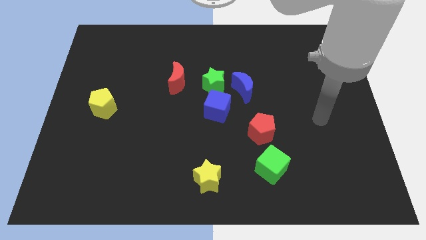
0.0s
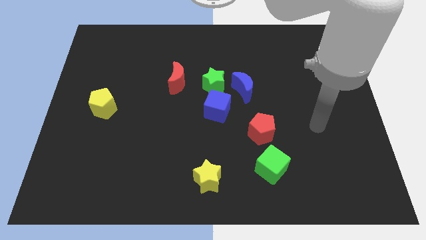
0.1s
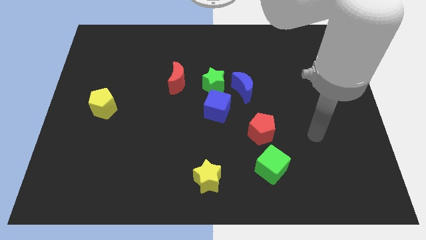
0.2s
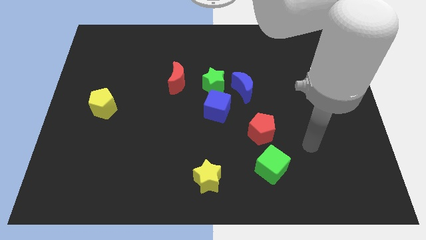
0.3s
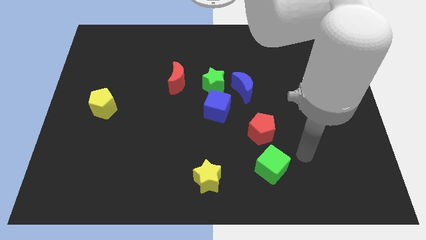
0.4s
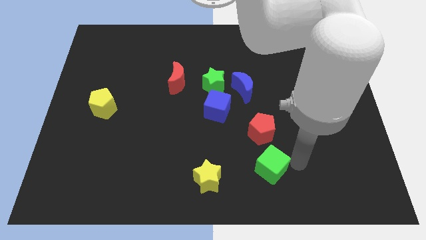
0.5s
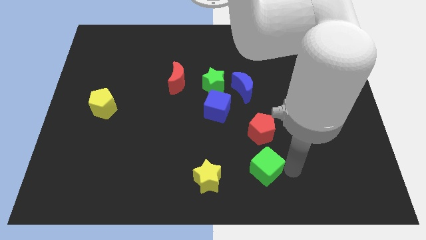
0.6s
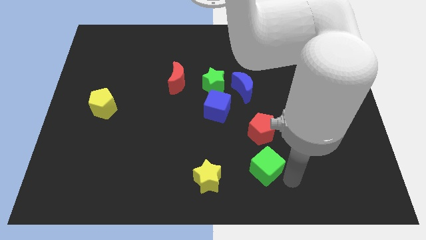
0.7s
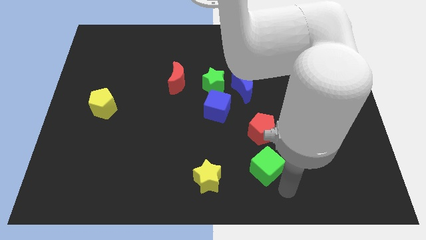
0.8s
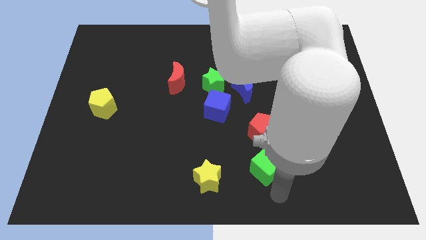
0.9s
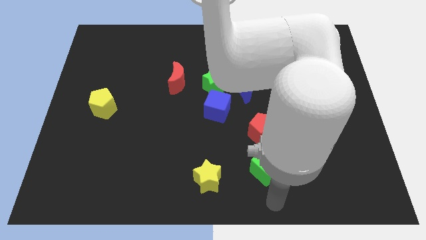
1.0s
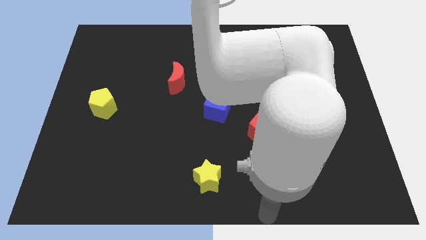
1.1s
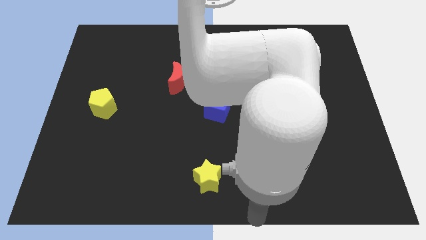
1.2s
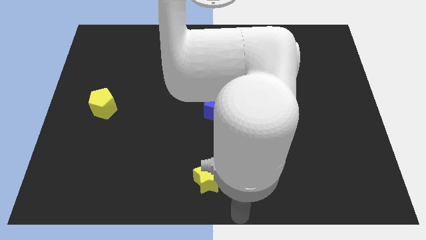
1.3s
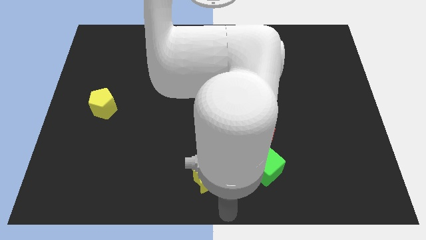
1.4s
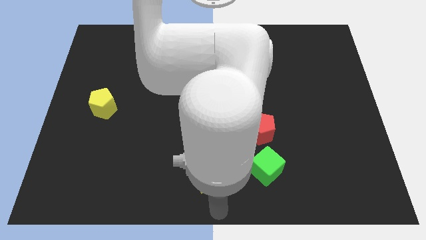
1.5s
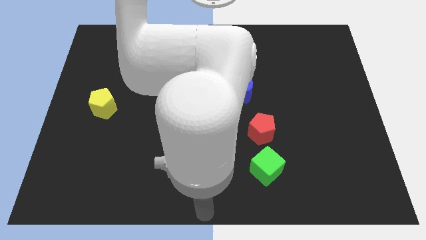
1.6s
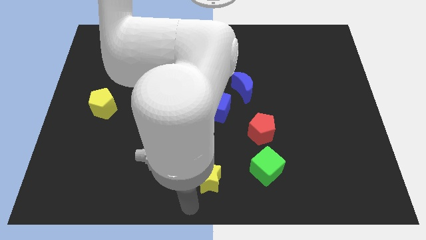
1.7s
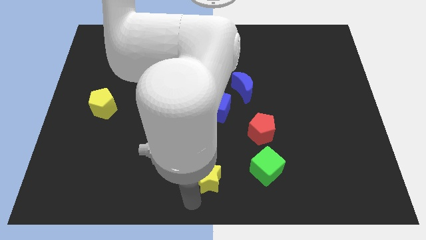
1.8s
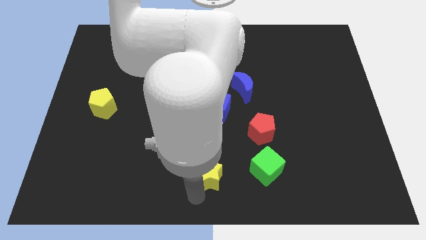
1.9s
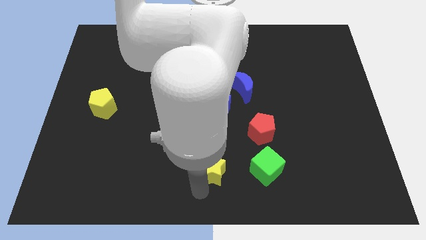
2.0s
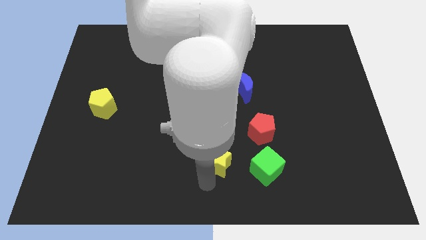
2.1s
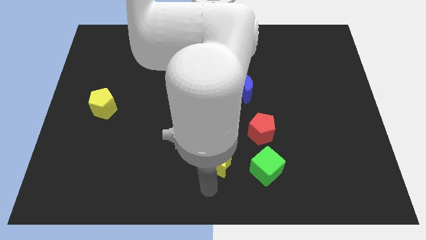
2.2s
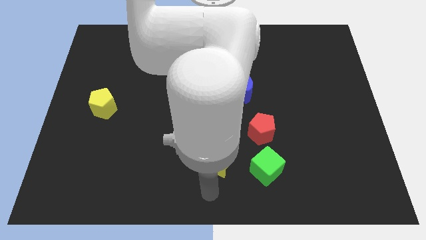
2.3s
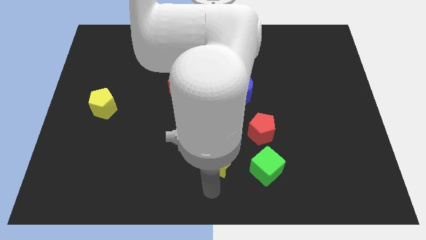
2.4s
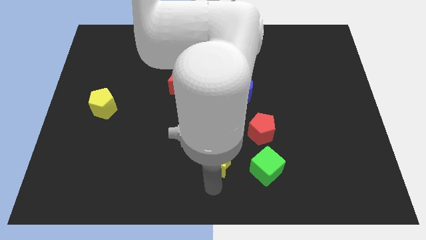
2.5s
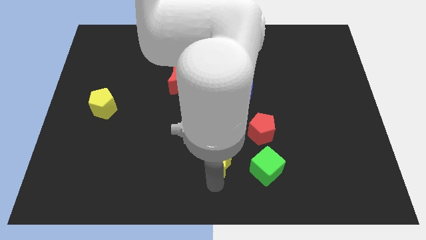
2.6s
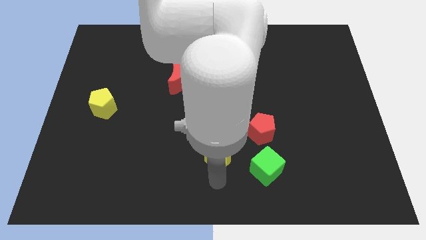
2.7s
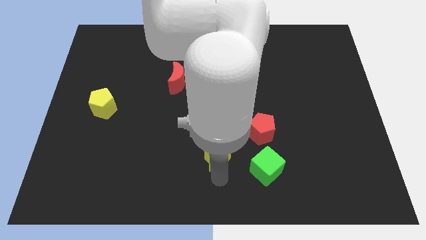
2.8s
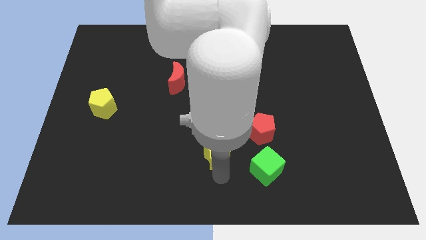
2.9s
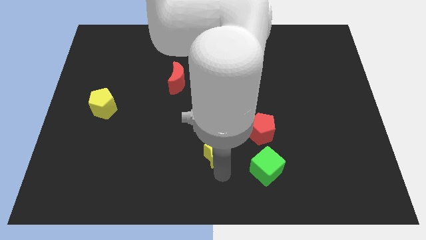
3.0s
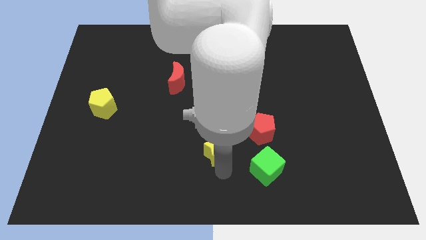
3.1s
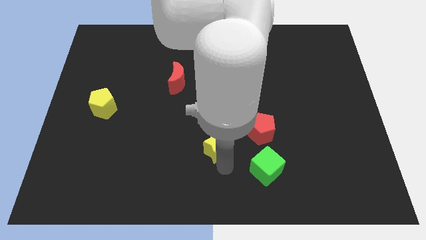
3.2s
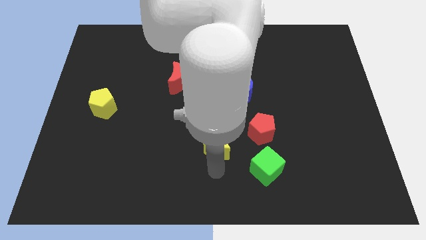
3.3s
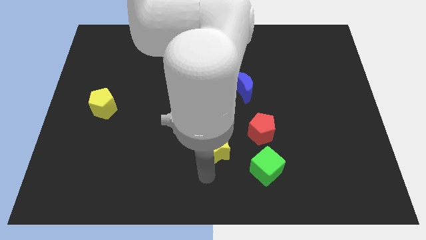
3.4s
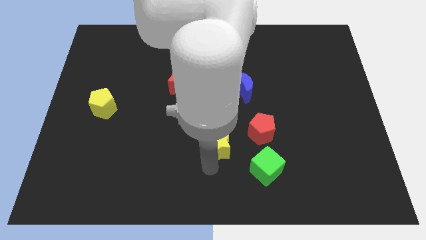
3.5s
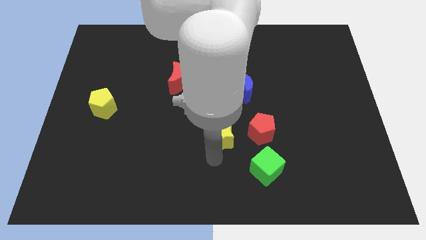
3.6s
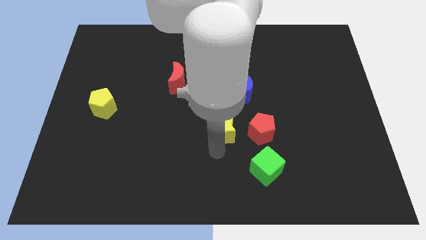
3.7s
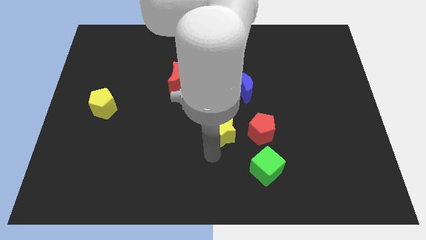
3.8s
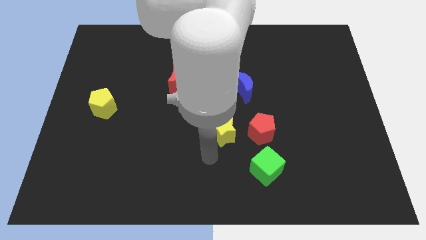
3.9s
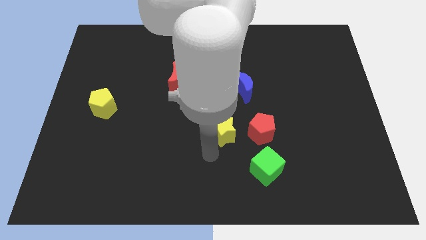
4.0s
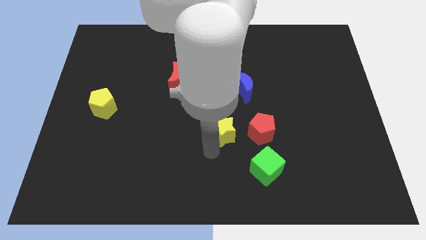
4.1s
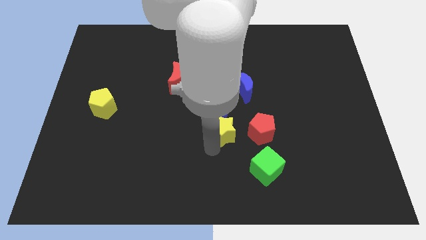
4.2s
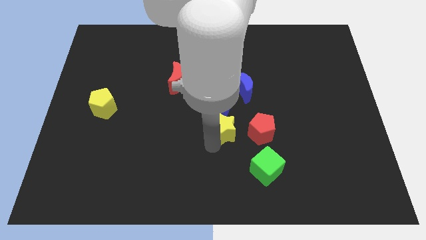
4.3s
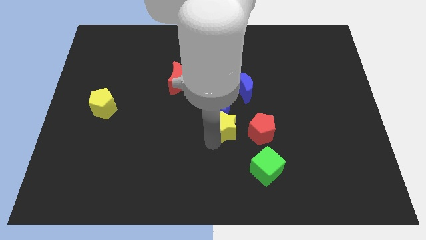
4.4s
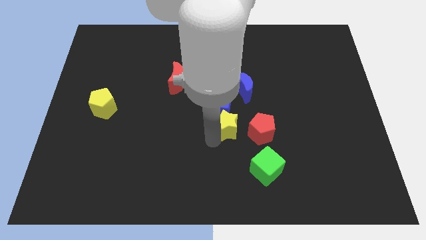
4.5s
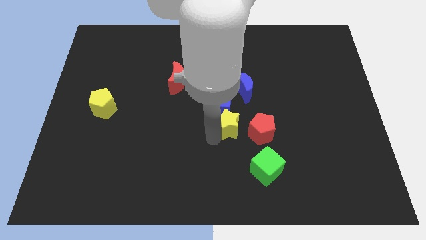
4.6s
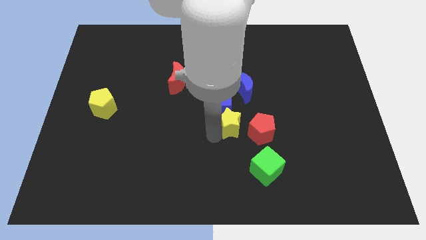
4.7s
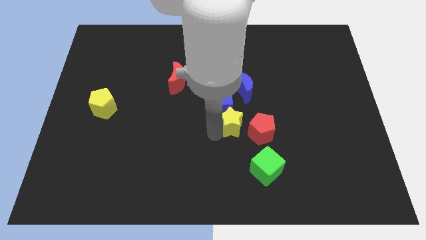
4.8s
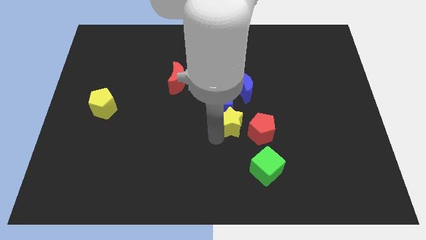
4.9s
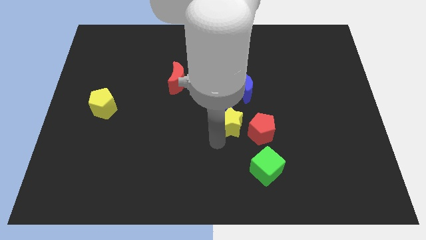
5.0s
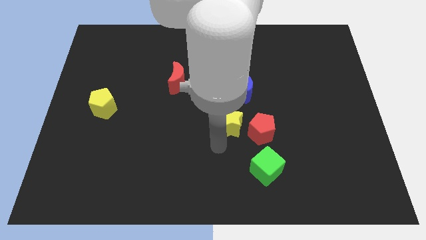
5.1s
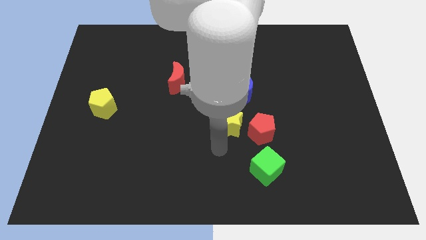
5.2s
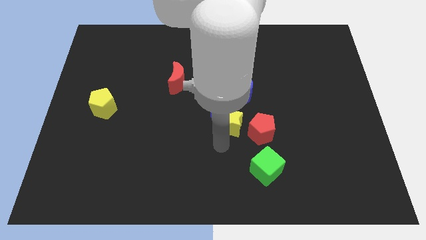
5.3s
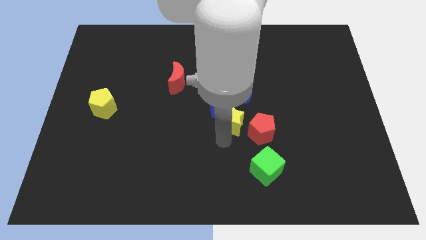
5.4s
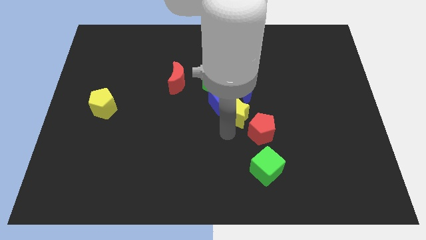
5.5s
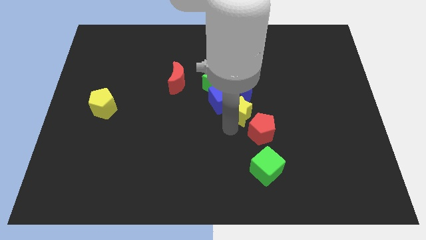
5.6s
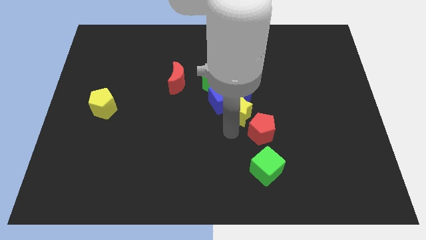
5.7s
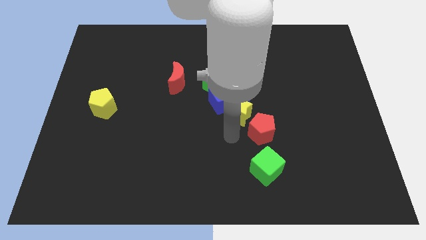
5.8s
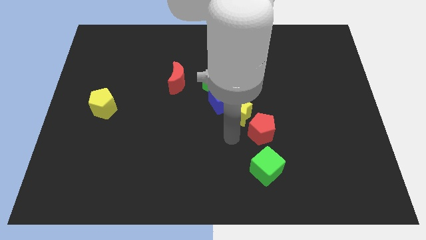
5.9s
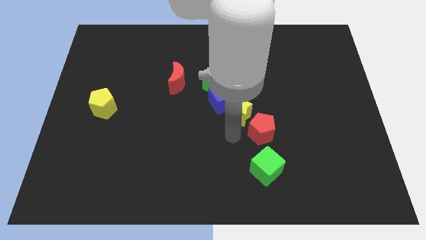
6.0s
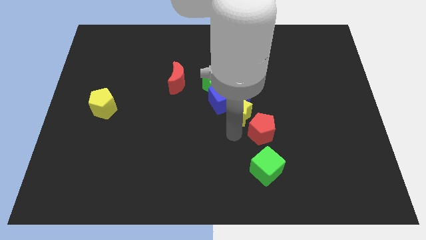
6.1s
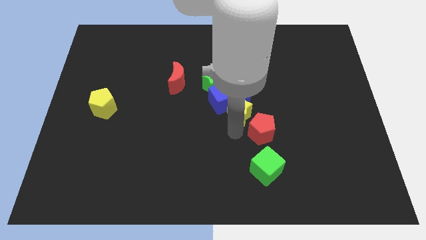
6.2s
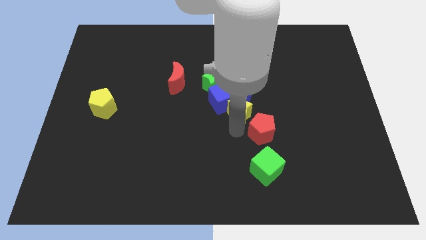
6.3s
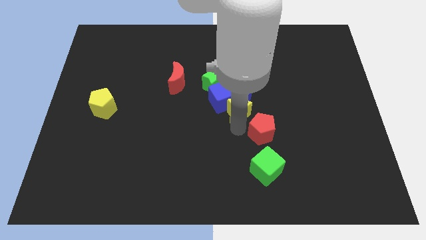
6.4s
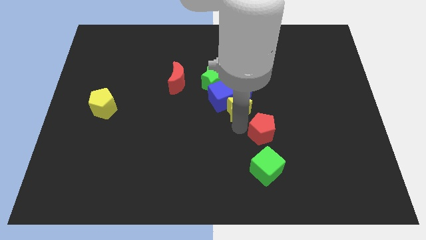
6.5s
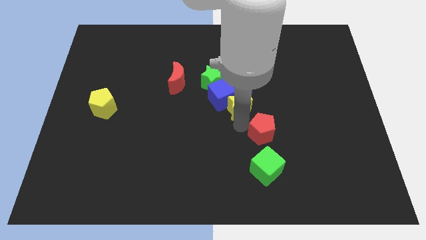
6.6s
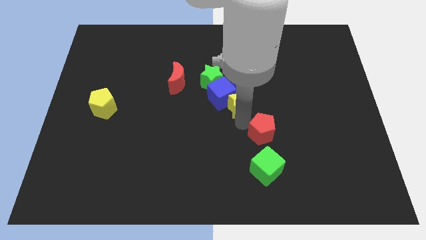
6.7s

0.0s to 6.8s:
slide the yellow star next to the blue moon
